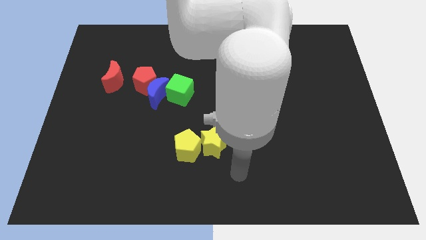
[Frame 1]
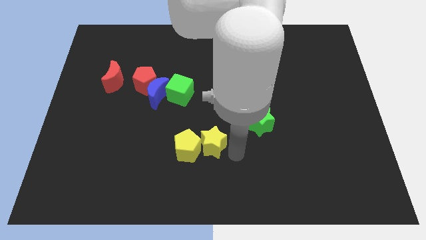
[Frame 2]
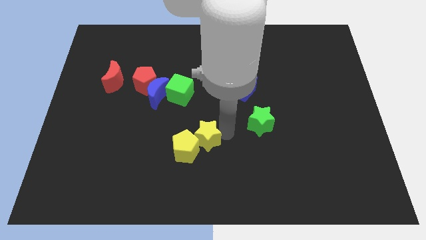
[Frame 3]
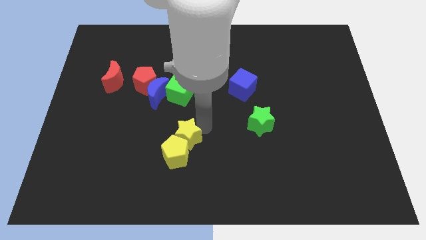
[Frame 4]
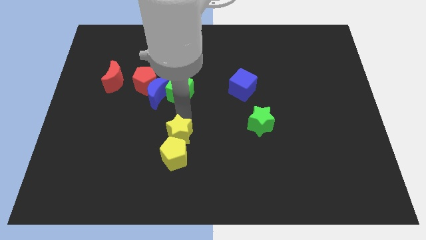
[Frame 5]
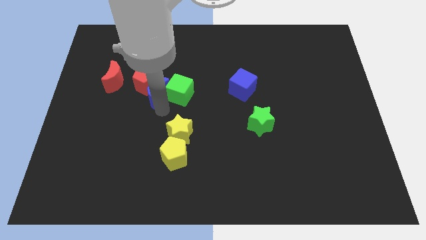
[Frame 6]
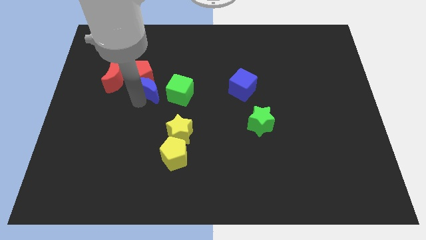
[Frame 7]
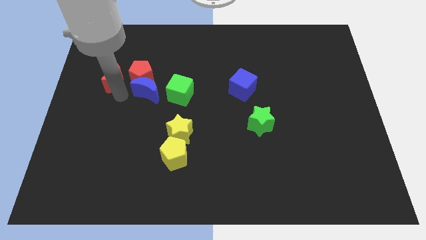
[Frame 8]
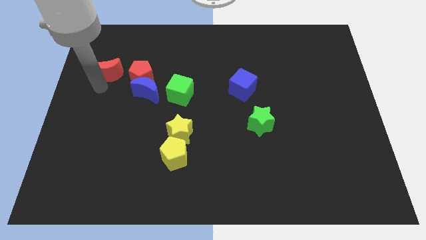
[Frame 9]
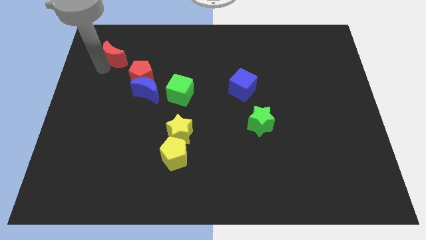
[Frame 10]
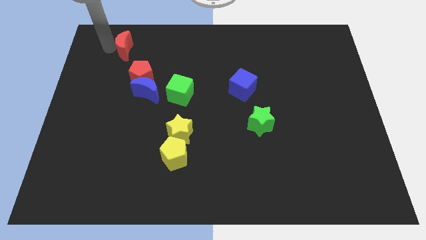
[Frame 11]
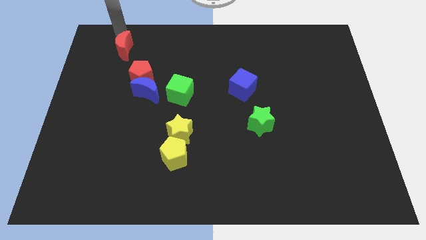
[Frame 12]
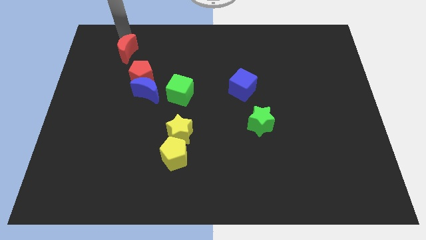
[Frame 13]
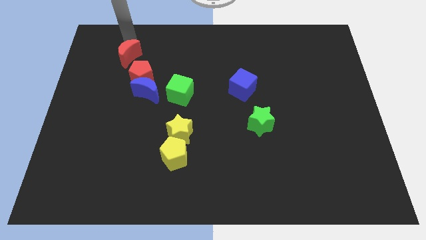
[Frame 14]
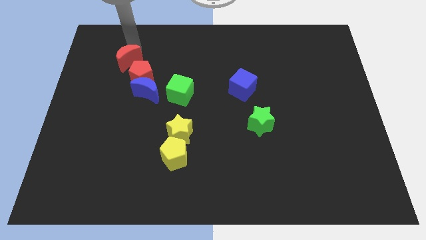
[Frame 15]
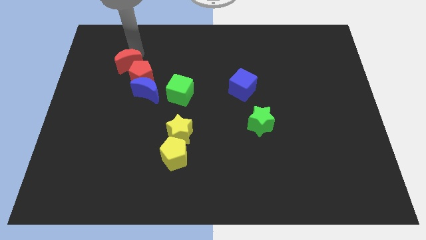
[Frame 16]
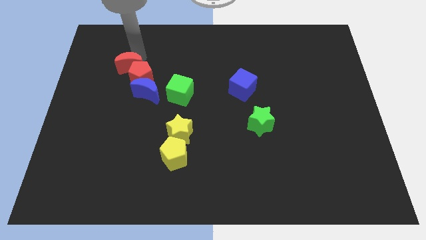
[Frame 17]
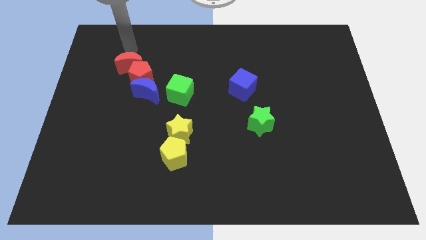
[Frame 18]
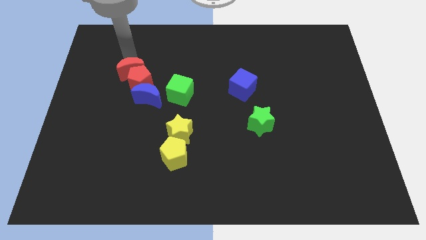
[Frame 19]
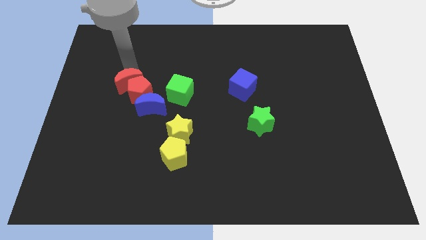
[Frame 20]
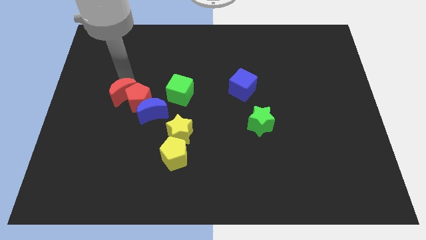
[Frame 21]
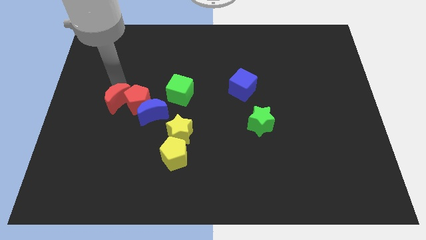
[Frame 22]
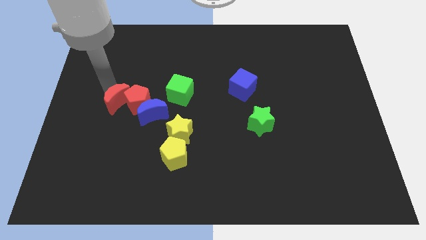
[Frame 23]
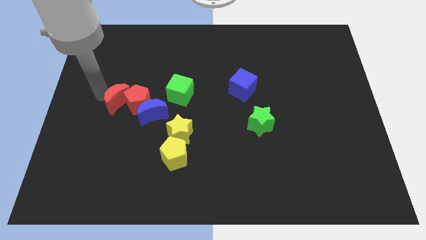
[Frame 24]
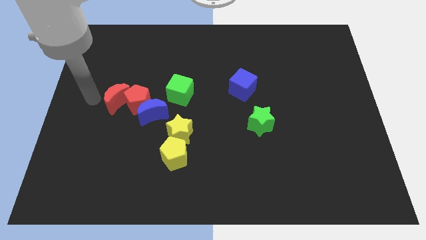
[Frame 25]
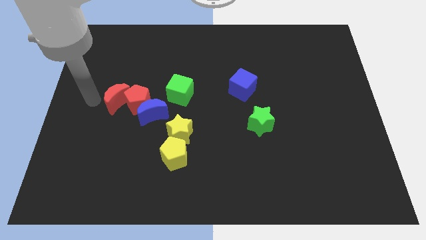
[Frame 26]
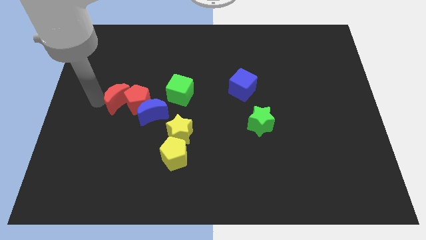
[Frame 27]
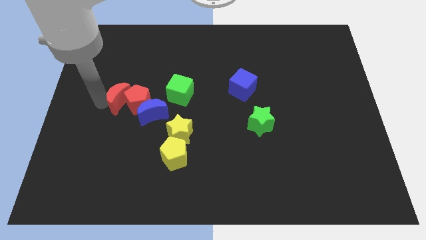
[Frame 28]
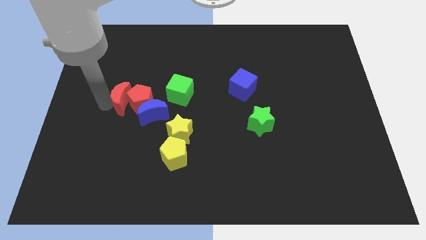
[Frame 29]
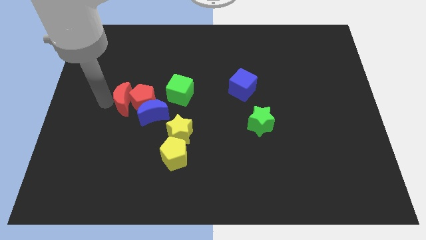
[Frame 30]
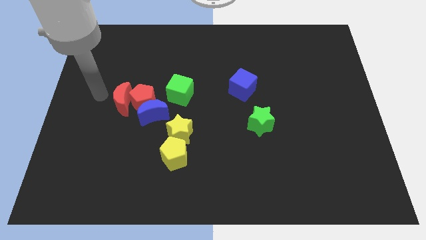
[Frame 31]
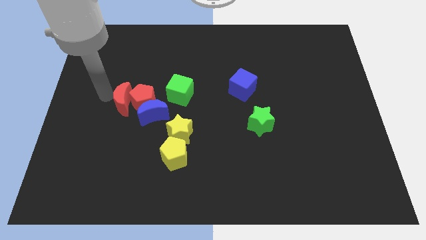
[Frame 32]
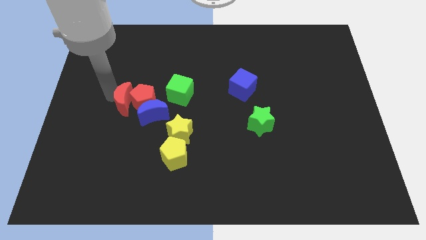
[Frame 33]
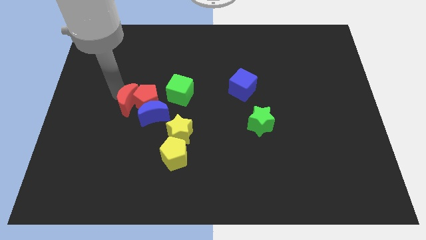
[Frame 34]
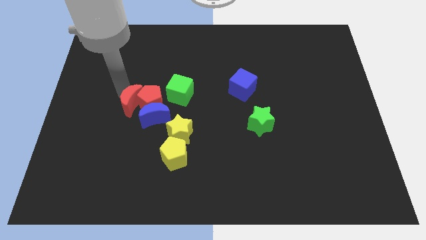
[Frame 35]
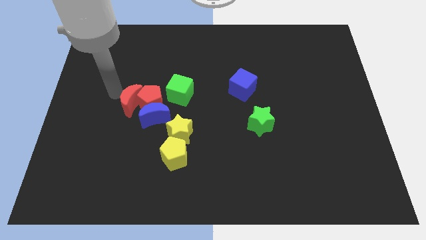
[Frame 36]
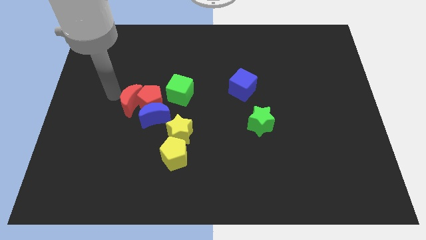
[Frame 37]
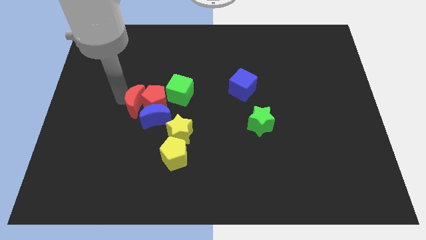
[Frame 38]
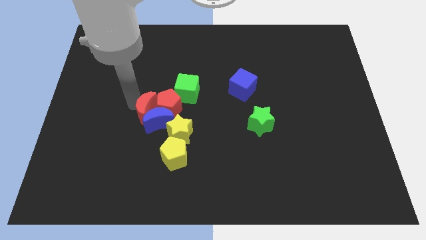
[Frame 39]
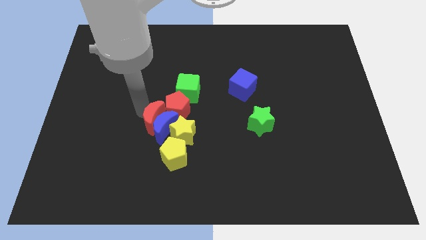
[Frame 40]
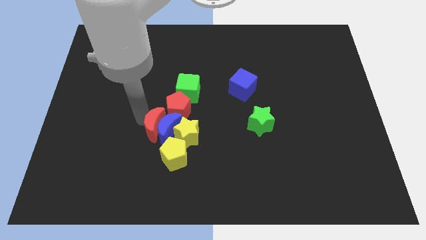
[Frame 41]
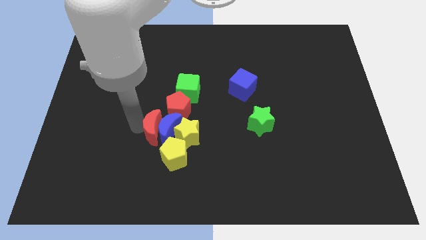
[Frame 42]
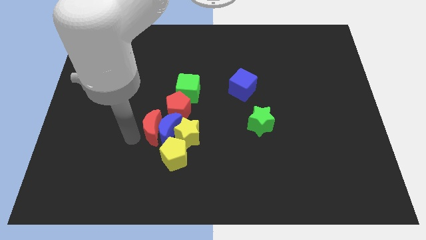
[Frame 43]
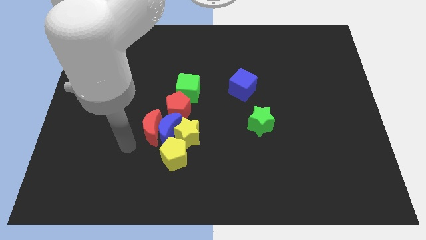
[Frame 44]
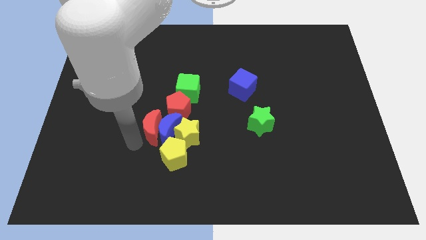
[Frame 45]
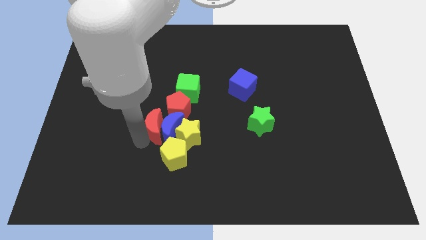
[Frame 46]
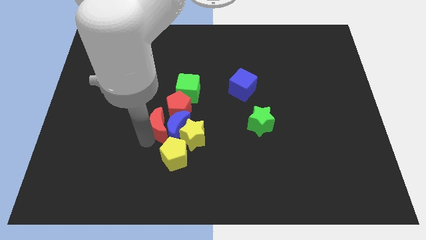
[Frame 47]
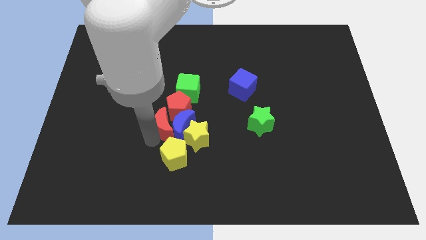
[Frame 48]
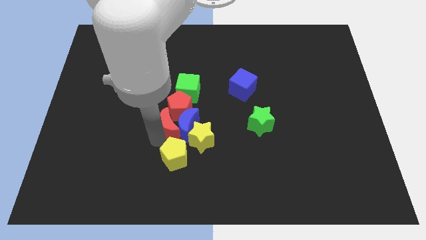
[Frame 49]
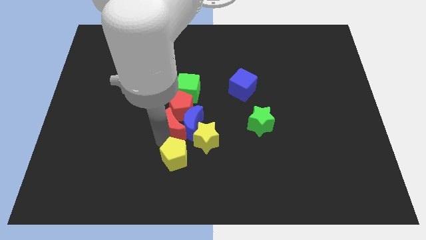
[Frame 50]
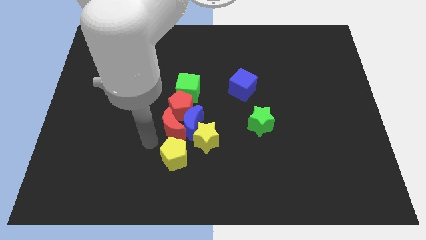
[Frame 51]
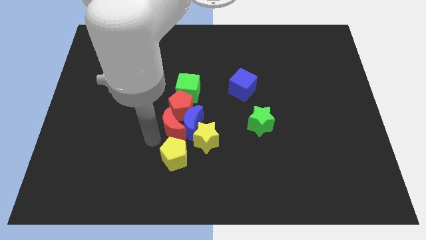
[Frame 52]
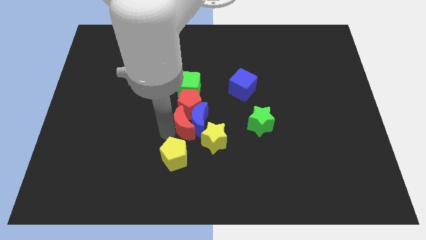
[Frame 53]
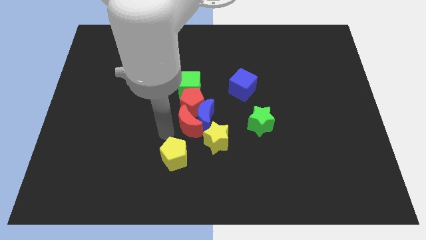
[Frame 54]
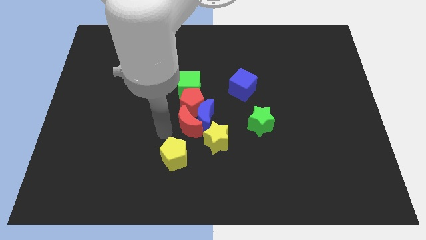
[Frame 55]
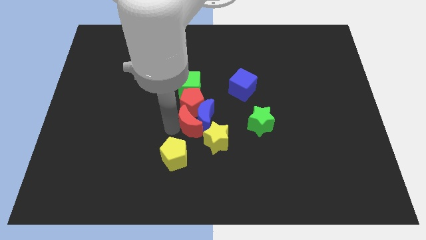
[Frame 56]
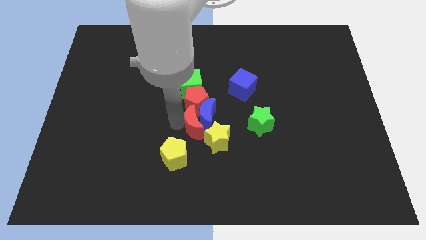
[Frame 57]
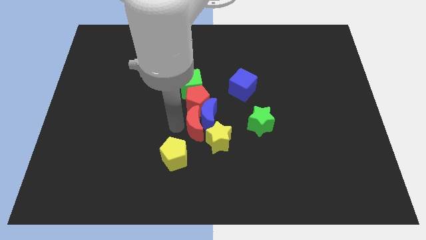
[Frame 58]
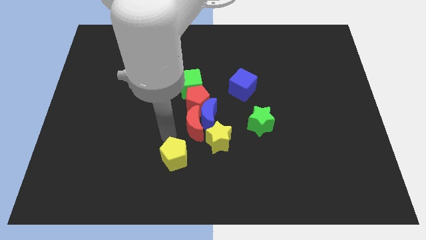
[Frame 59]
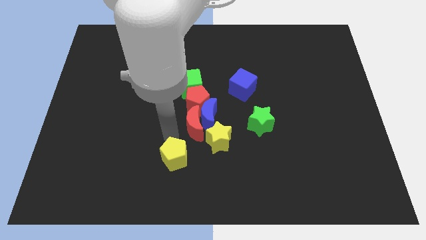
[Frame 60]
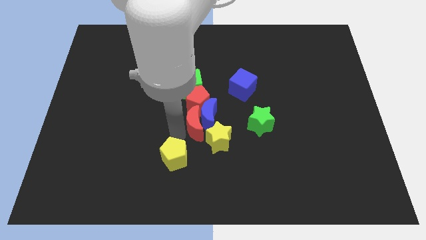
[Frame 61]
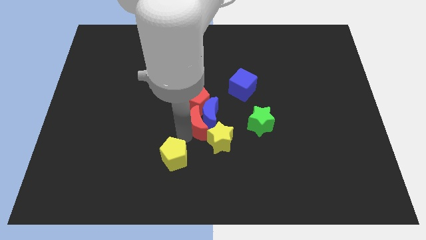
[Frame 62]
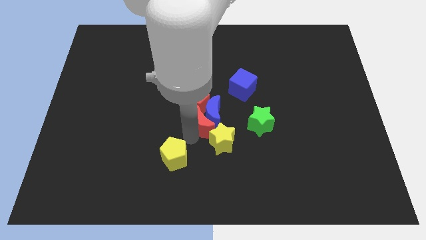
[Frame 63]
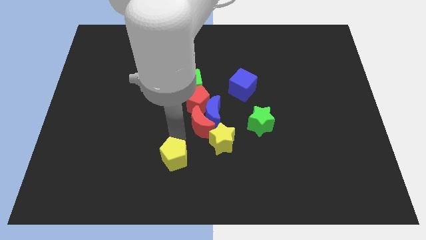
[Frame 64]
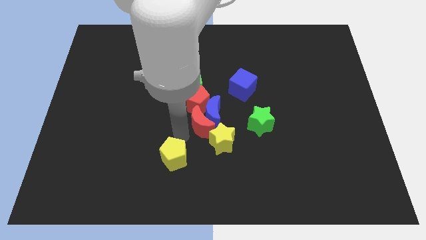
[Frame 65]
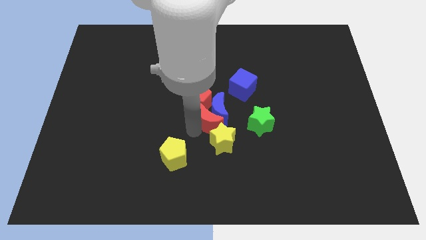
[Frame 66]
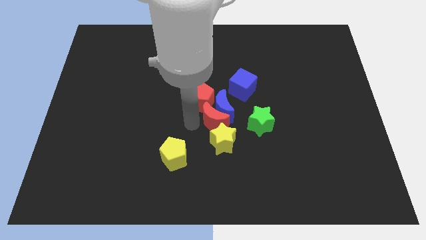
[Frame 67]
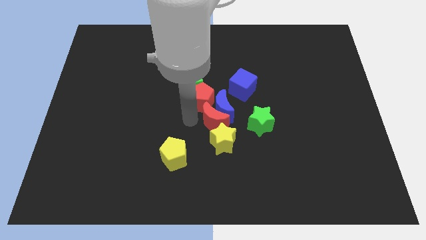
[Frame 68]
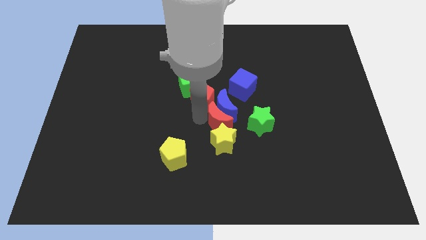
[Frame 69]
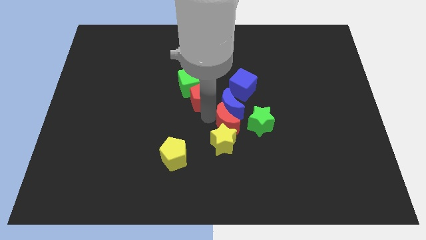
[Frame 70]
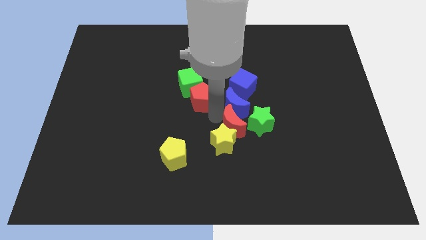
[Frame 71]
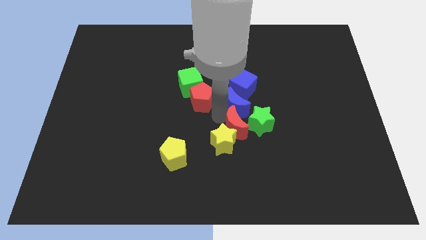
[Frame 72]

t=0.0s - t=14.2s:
push the red moon towards the green star

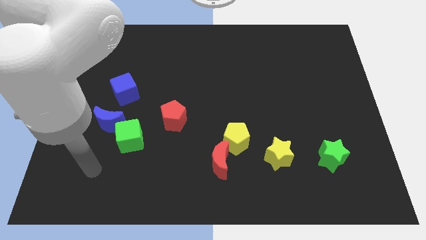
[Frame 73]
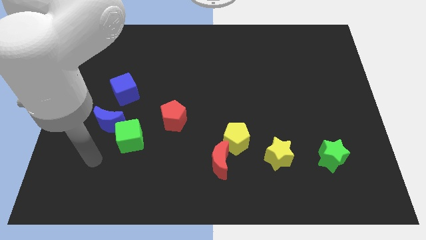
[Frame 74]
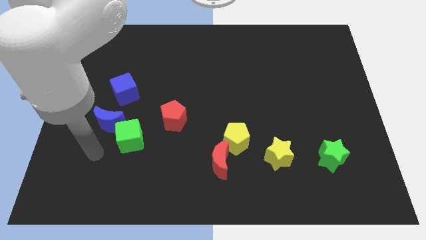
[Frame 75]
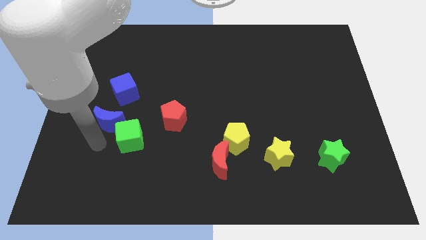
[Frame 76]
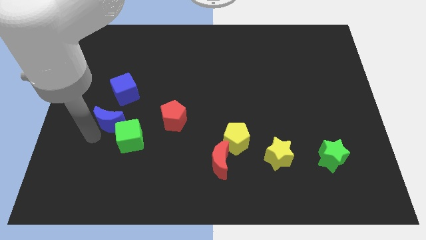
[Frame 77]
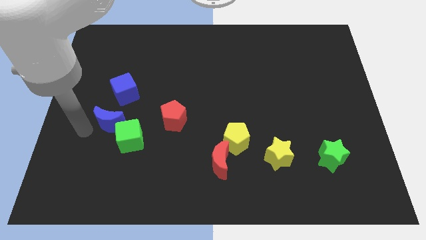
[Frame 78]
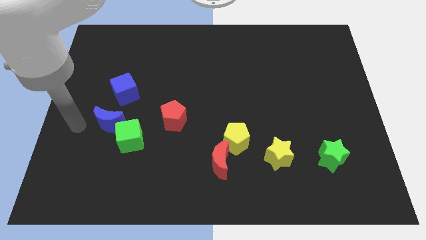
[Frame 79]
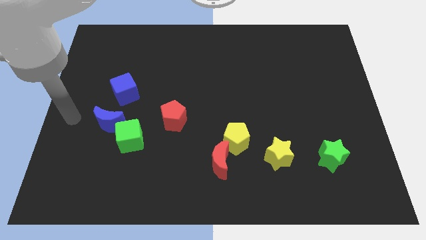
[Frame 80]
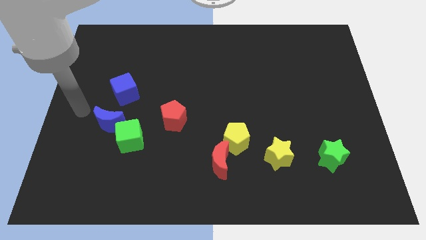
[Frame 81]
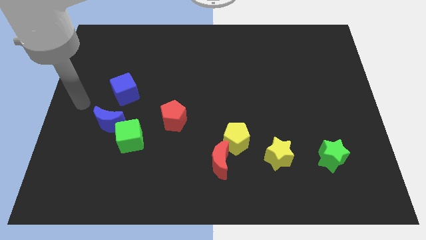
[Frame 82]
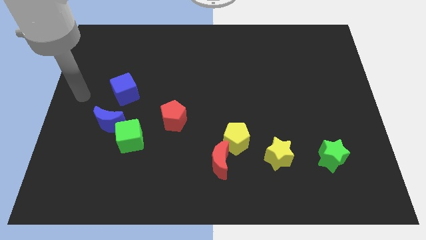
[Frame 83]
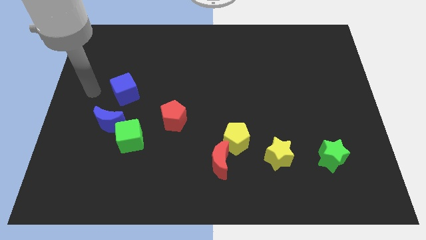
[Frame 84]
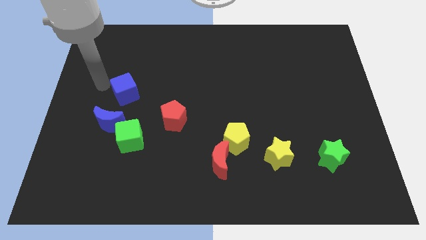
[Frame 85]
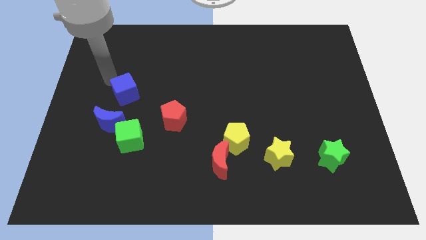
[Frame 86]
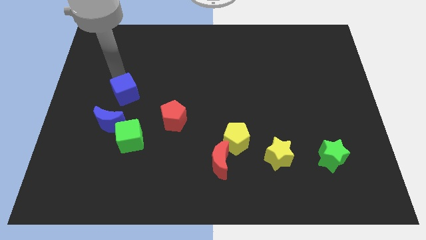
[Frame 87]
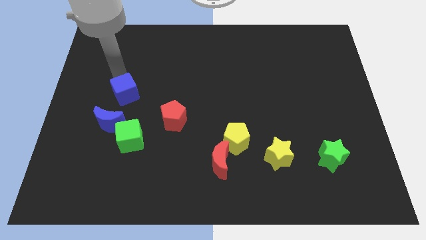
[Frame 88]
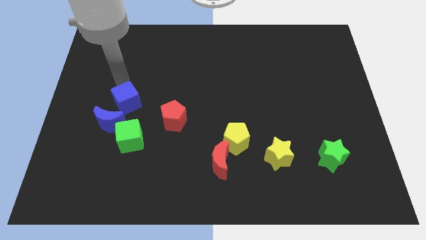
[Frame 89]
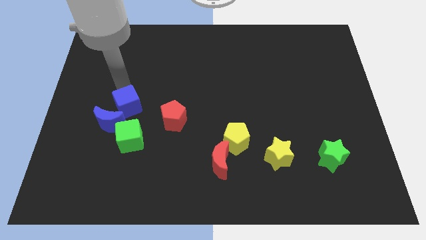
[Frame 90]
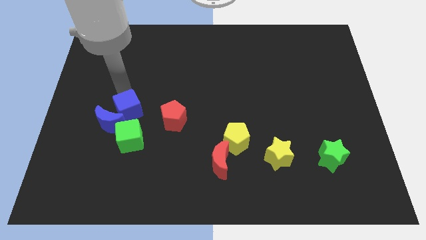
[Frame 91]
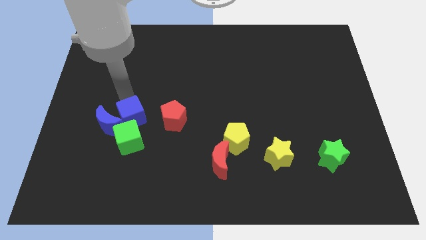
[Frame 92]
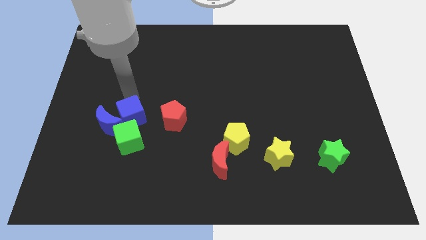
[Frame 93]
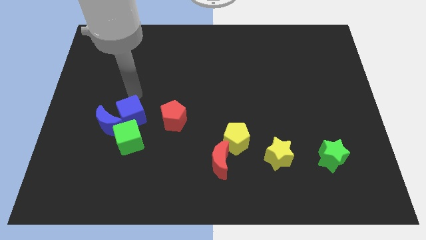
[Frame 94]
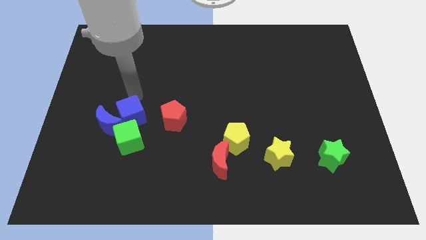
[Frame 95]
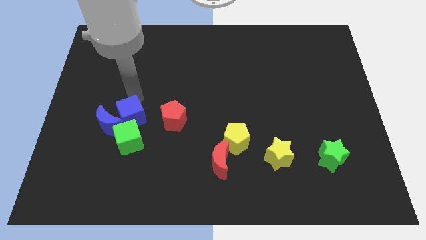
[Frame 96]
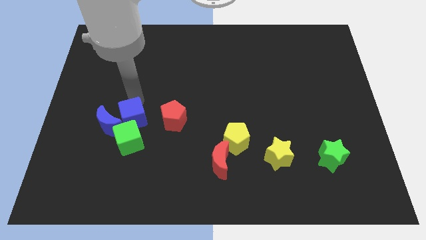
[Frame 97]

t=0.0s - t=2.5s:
push the blue cube to the green cube
